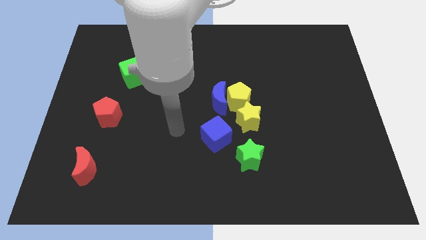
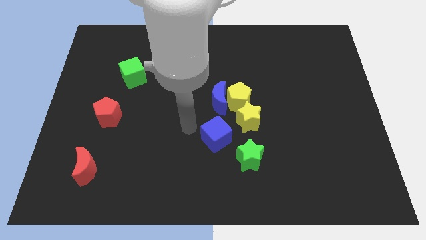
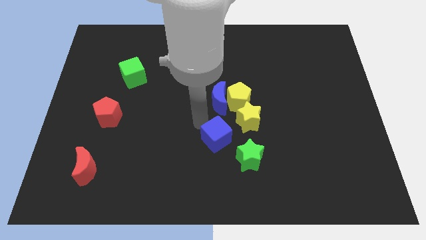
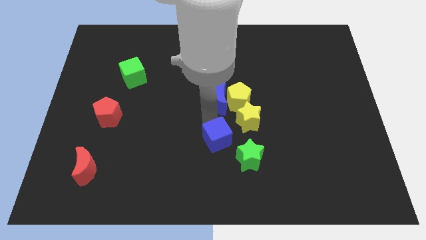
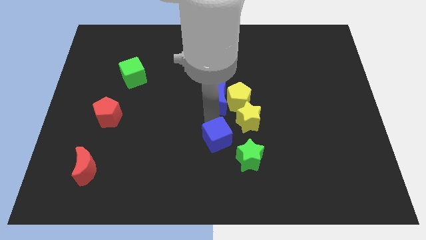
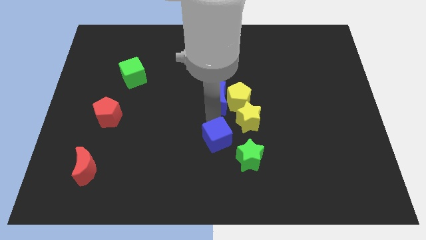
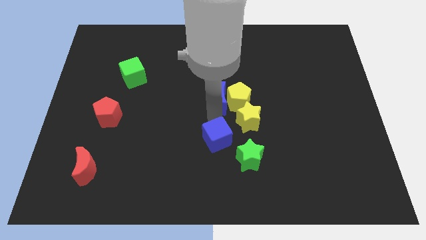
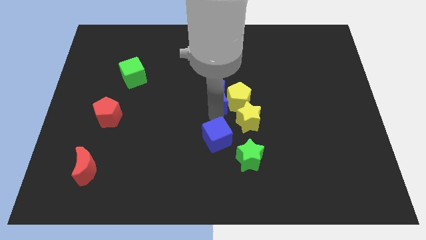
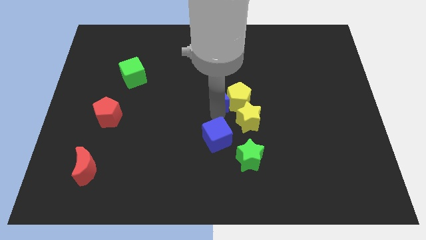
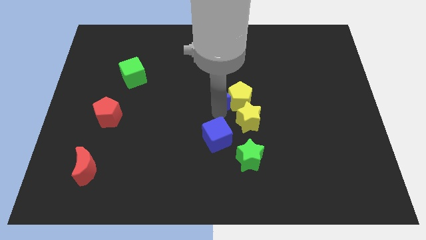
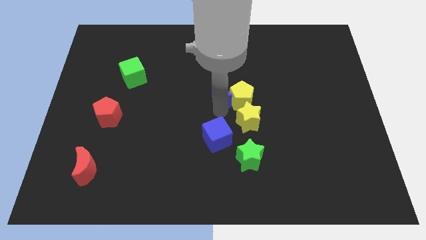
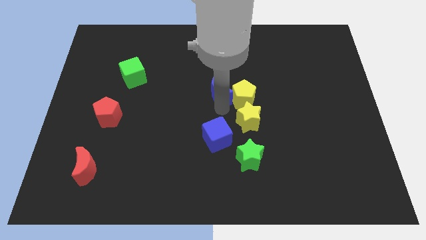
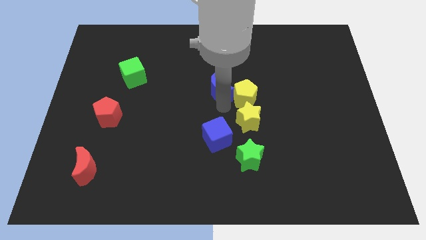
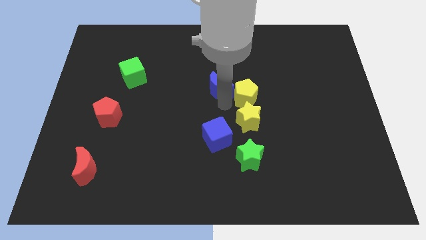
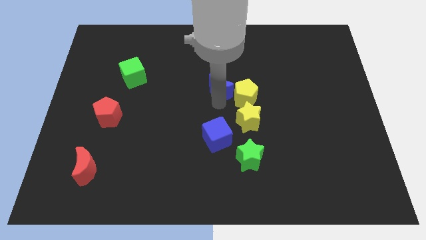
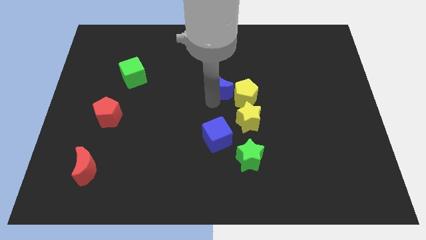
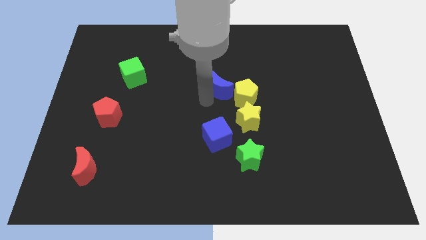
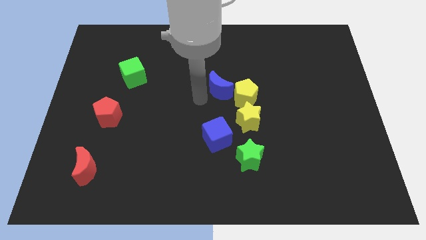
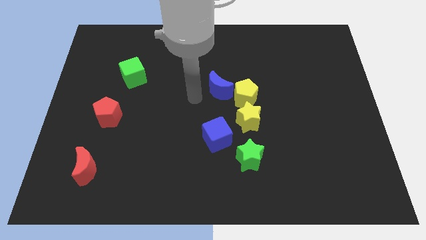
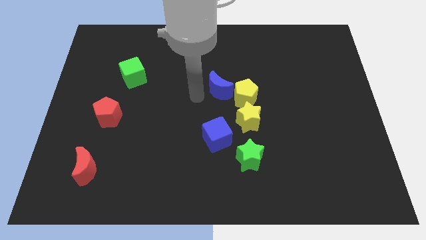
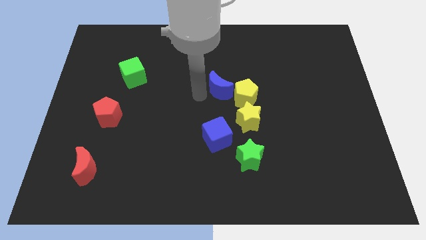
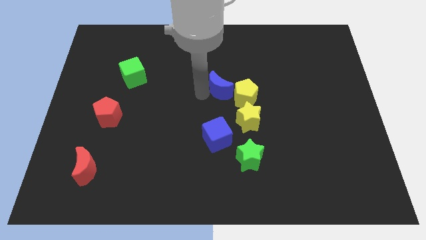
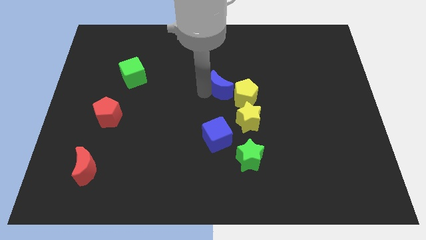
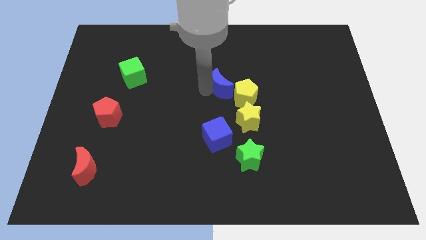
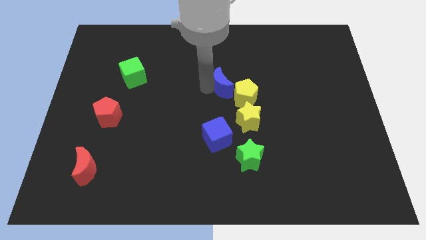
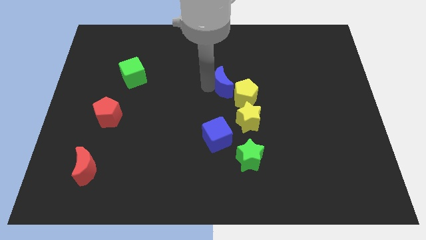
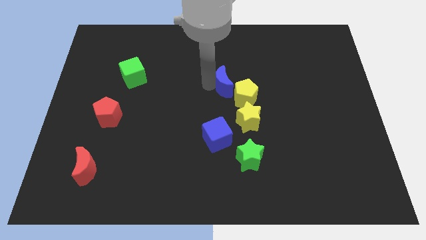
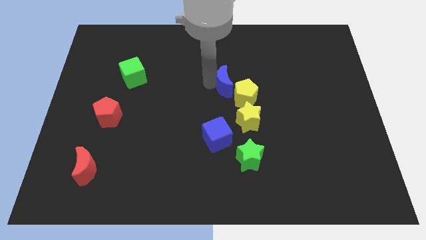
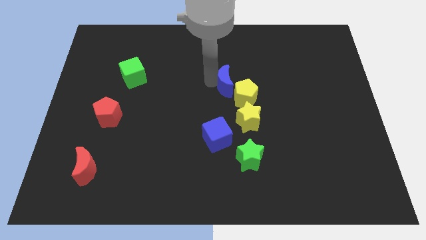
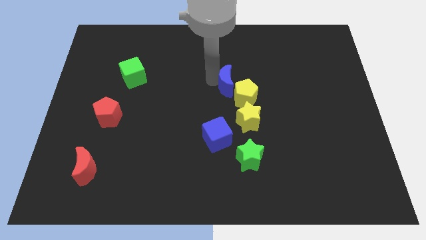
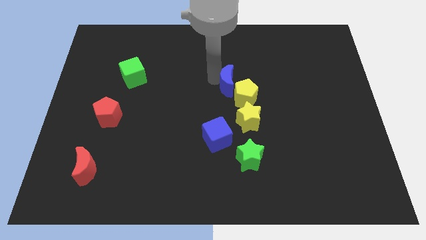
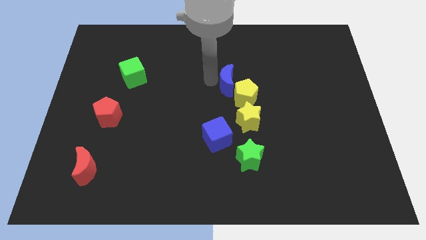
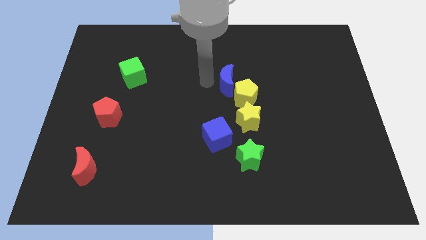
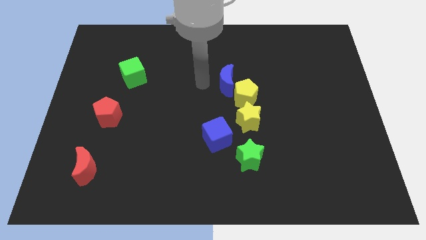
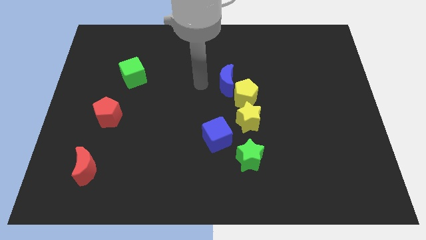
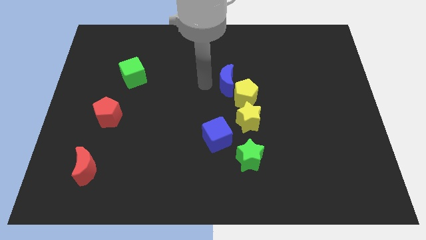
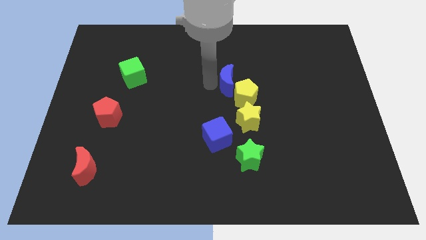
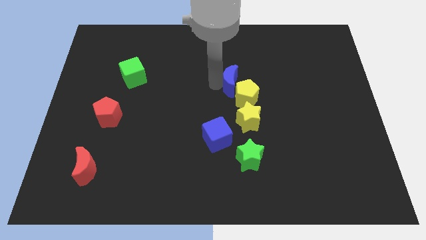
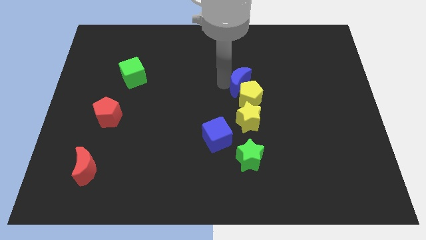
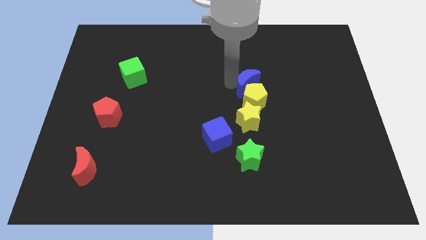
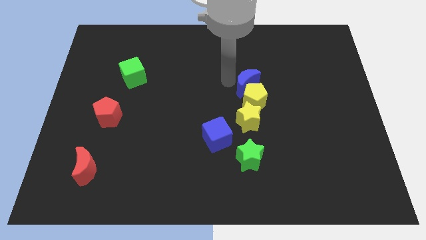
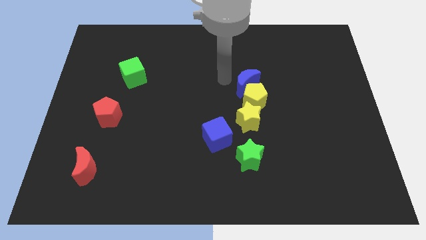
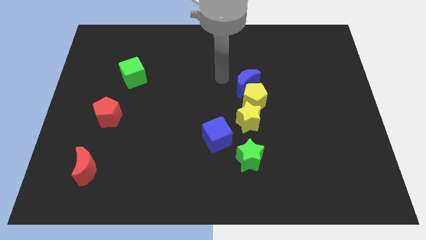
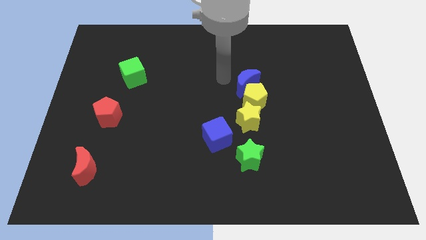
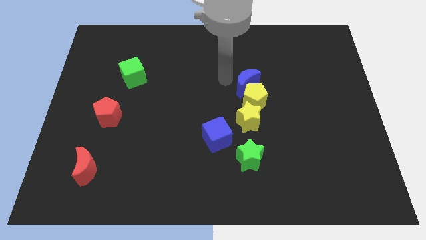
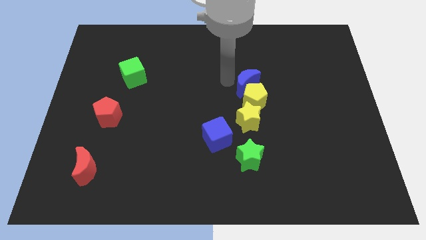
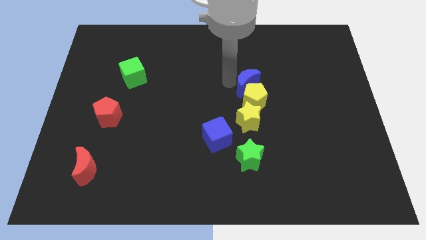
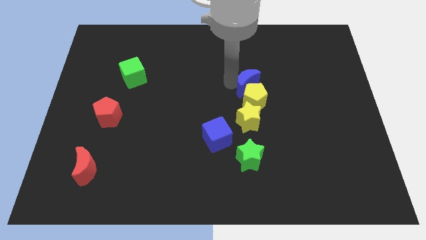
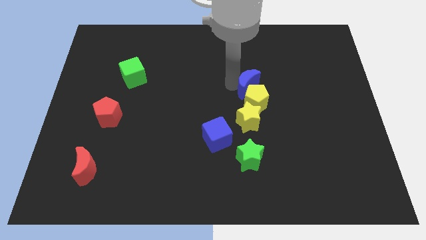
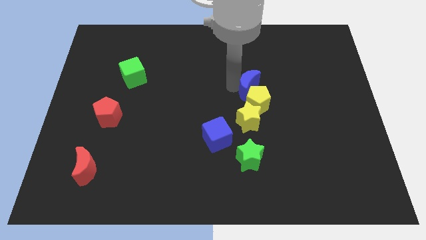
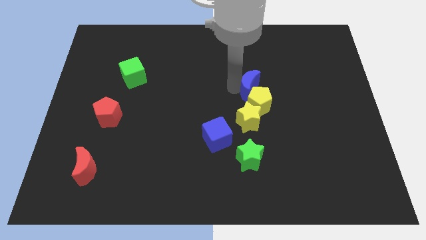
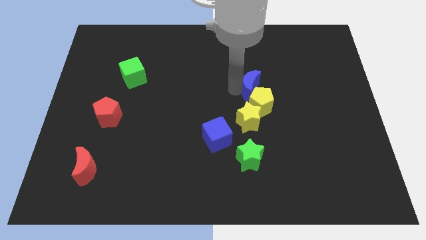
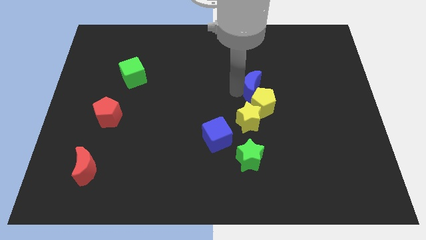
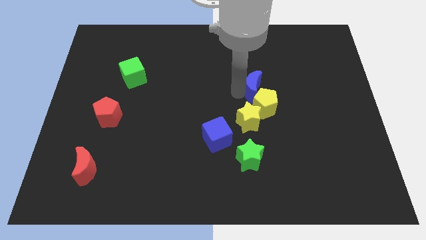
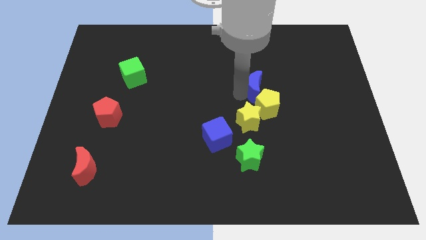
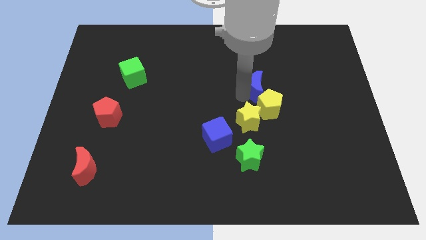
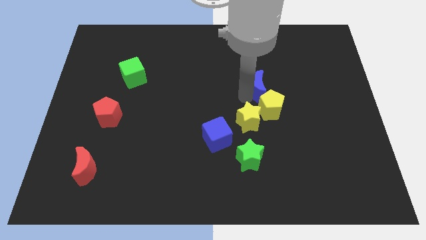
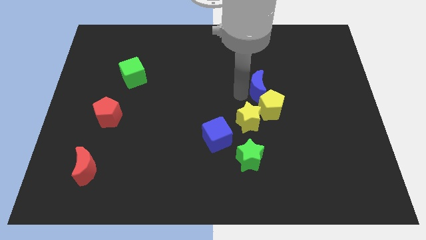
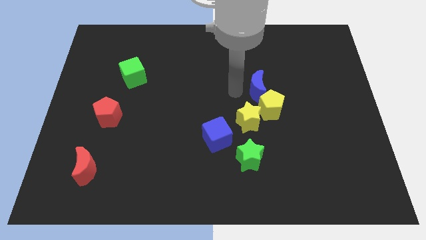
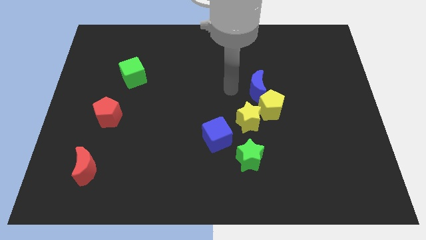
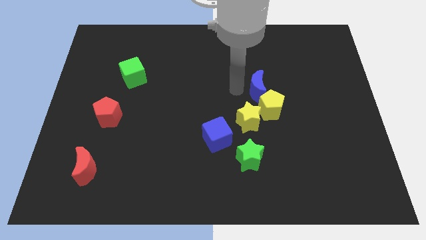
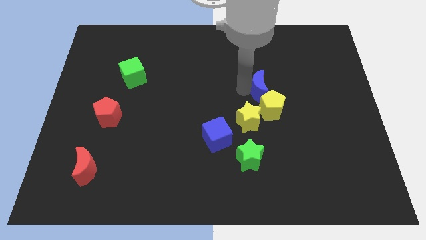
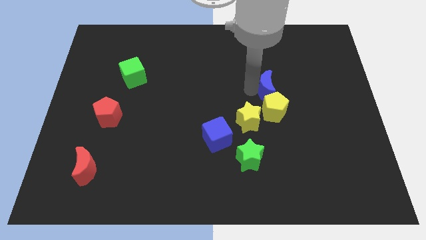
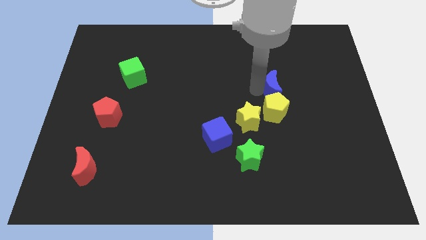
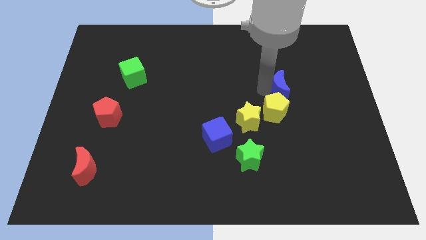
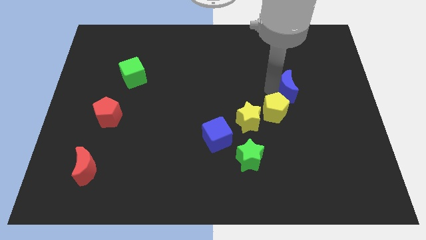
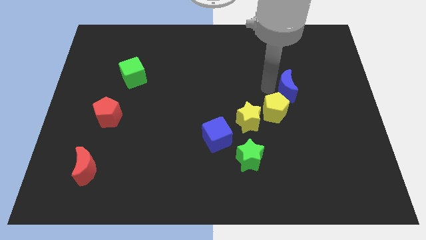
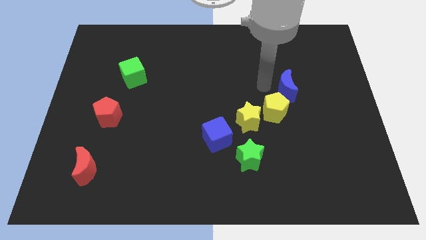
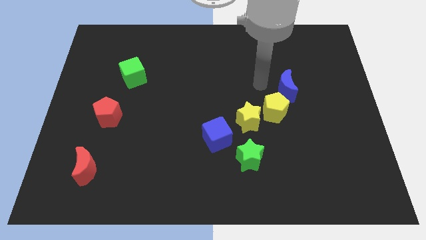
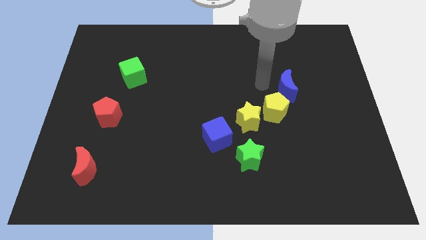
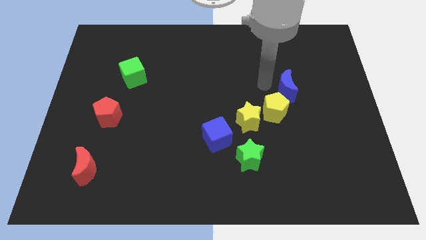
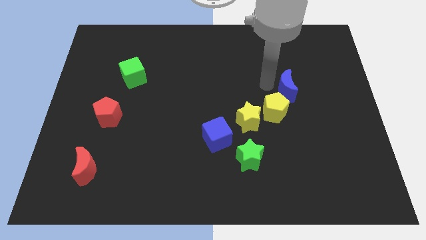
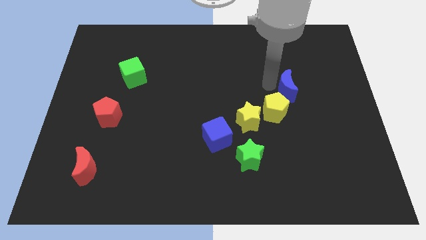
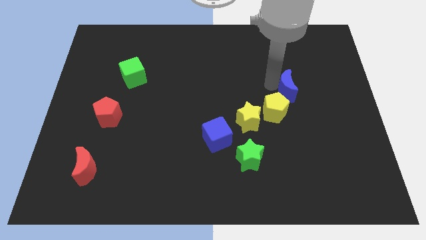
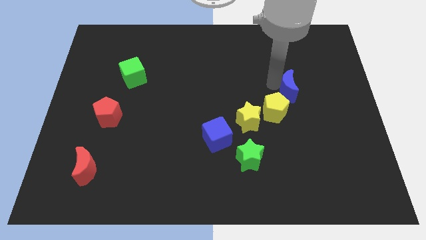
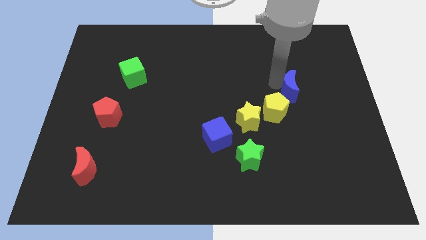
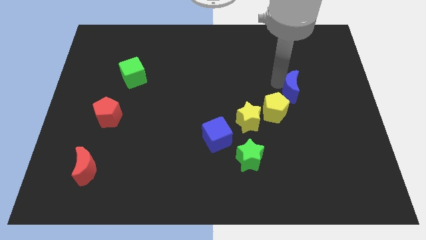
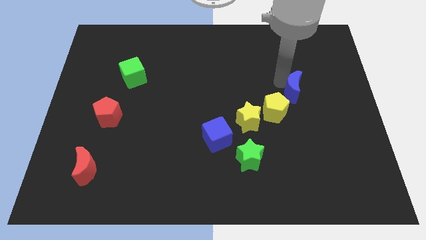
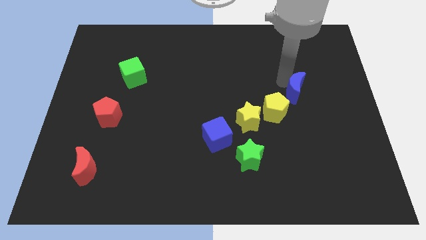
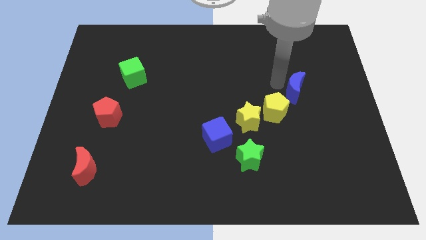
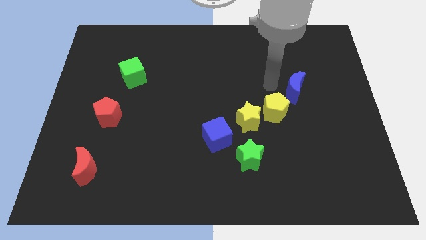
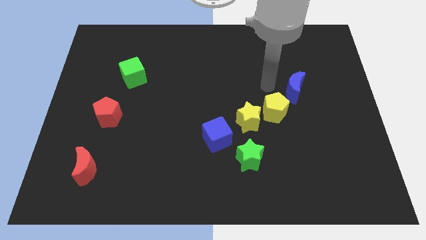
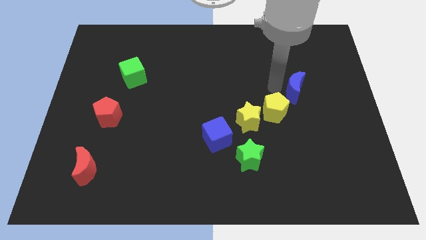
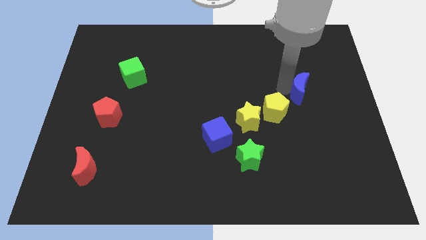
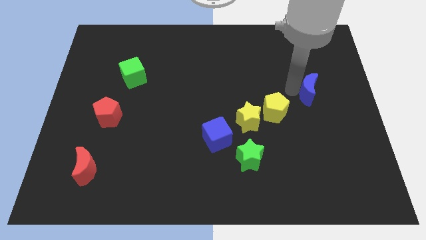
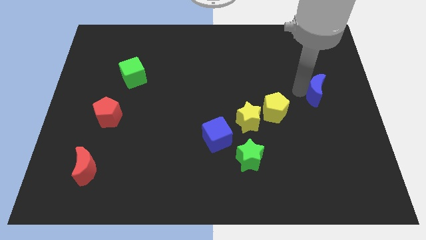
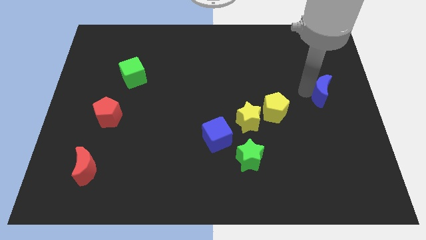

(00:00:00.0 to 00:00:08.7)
move the blue moon to the center right
